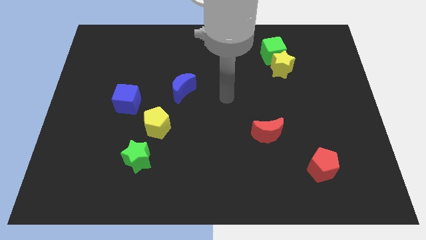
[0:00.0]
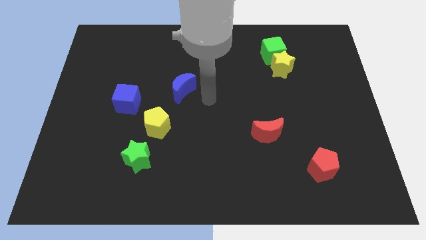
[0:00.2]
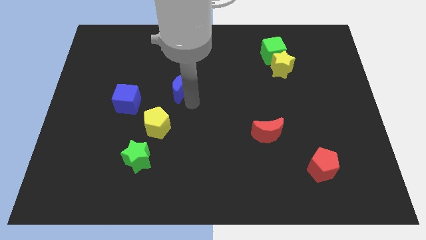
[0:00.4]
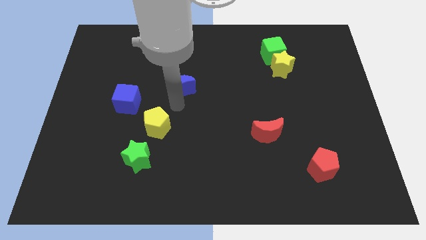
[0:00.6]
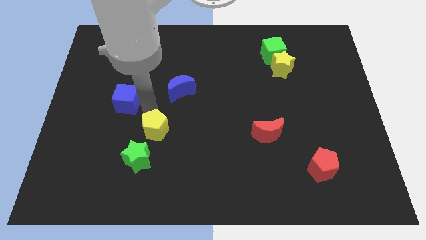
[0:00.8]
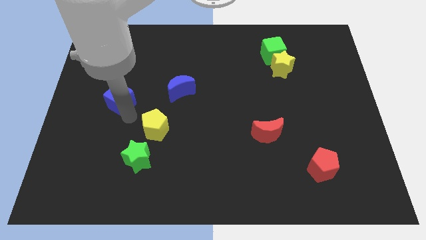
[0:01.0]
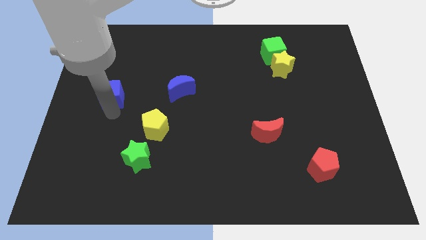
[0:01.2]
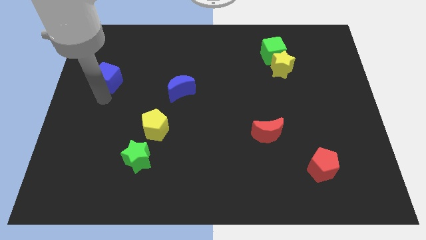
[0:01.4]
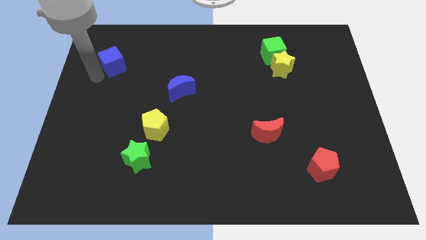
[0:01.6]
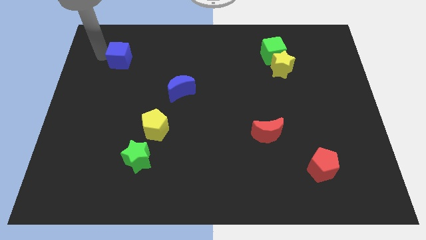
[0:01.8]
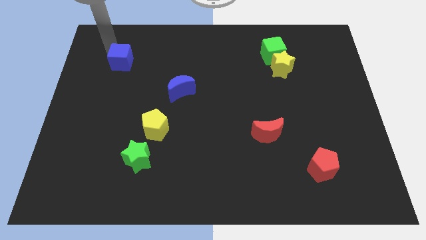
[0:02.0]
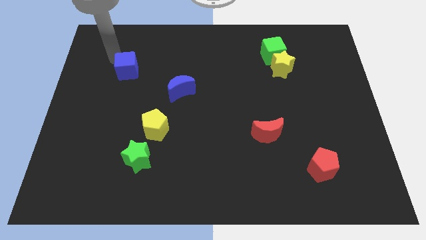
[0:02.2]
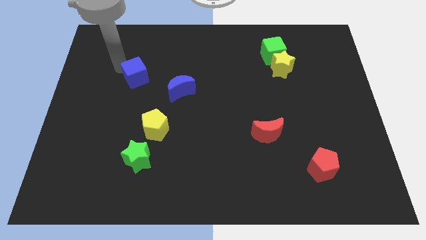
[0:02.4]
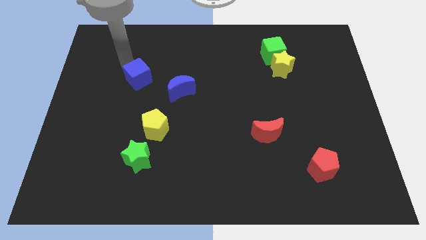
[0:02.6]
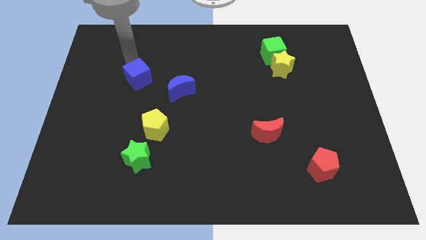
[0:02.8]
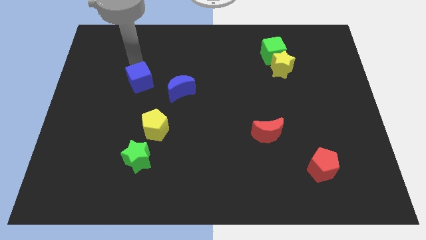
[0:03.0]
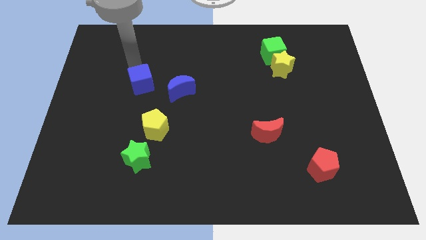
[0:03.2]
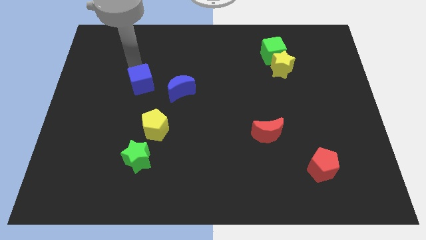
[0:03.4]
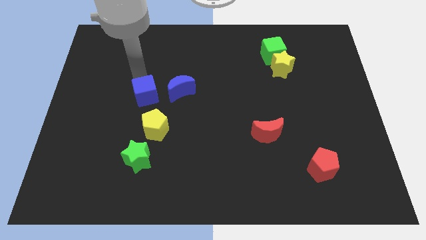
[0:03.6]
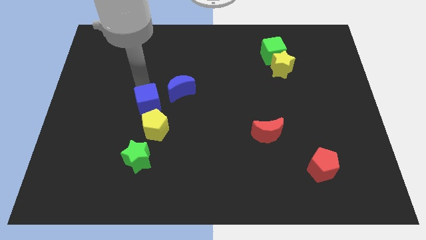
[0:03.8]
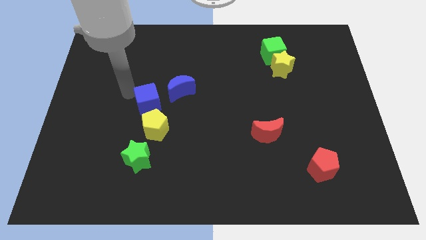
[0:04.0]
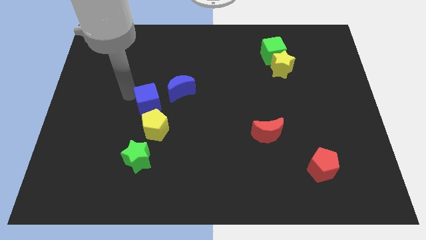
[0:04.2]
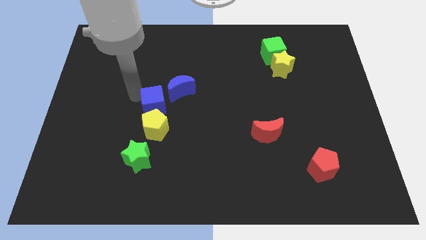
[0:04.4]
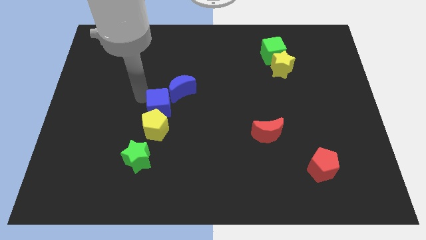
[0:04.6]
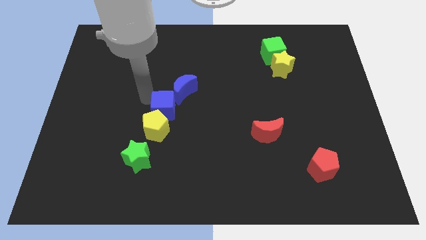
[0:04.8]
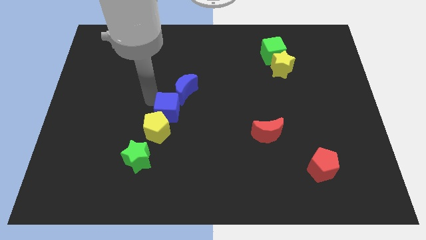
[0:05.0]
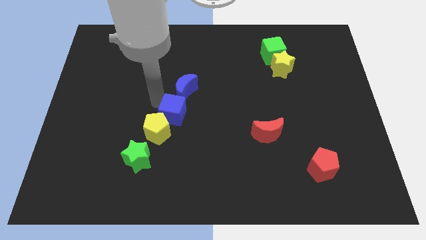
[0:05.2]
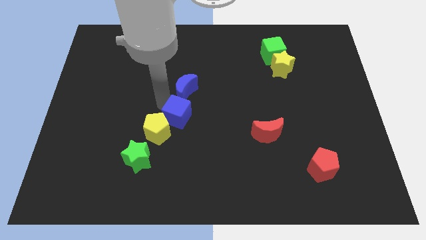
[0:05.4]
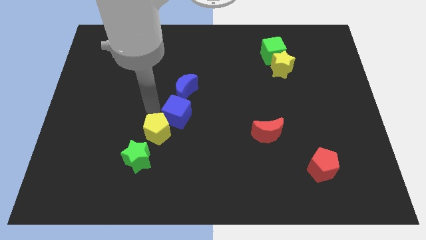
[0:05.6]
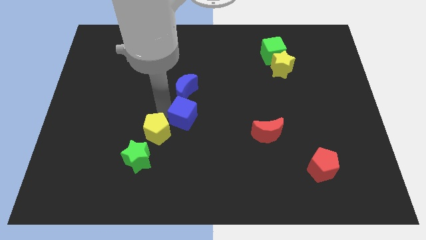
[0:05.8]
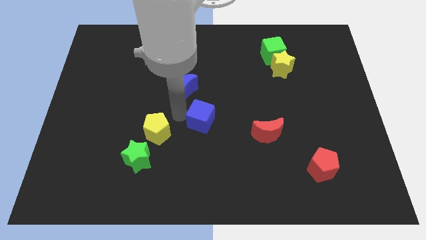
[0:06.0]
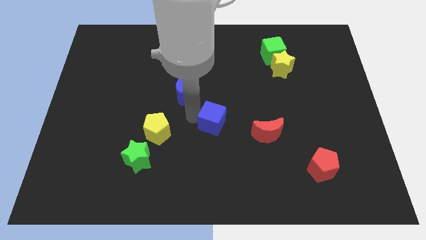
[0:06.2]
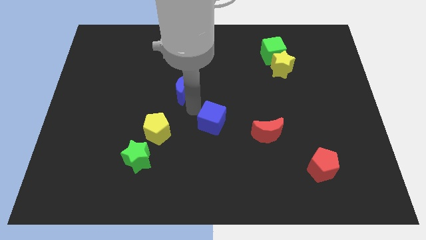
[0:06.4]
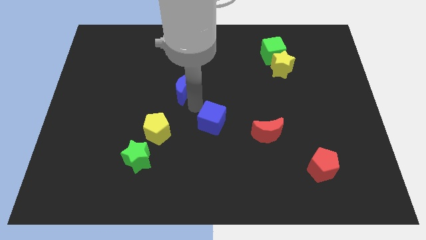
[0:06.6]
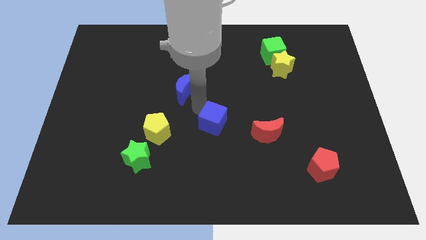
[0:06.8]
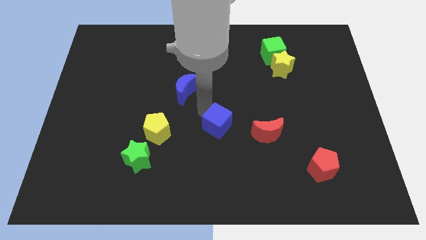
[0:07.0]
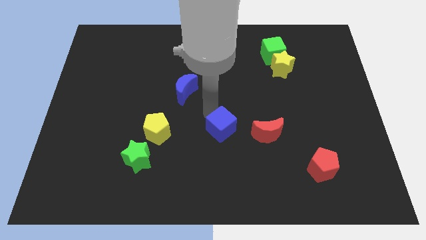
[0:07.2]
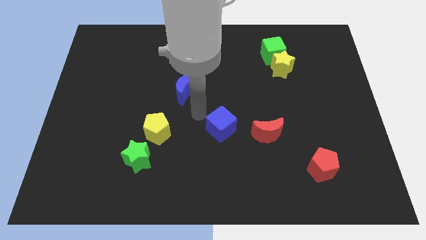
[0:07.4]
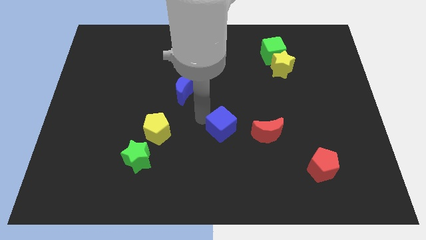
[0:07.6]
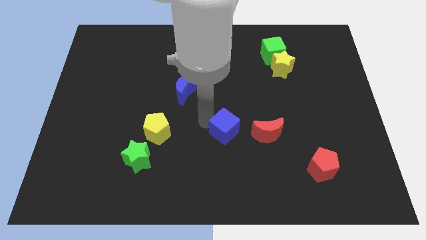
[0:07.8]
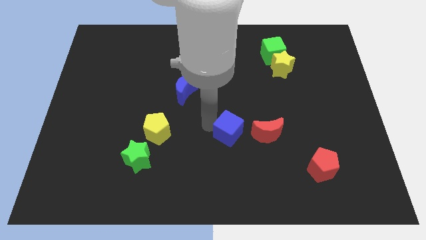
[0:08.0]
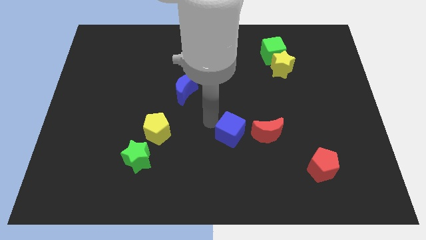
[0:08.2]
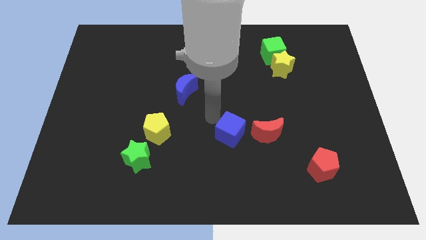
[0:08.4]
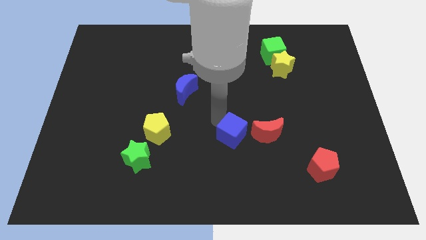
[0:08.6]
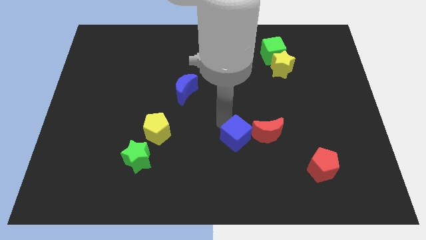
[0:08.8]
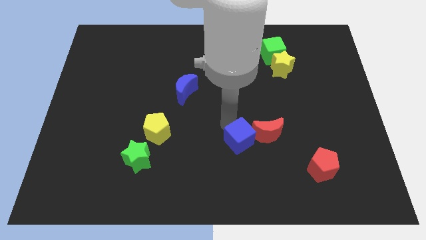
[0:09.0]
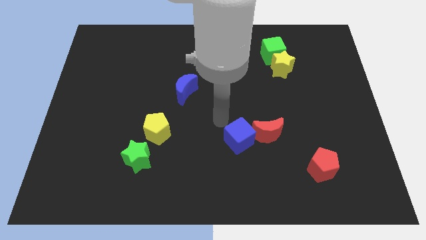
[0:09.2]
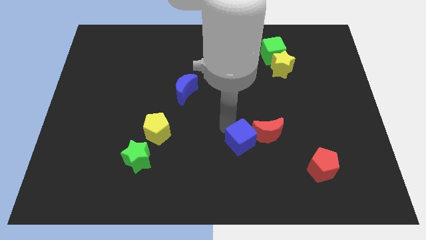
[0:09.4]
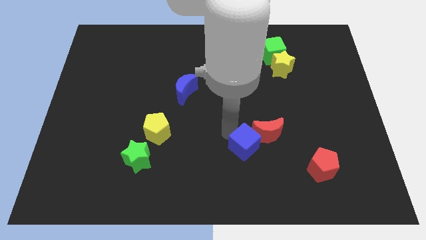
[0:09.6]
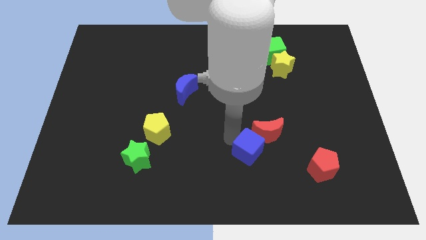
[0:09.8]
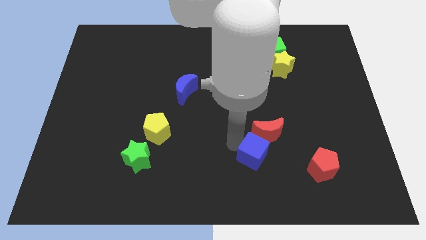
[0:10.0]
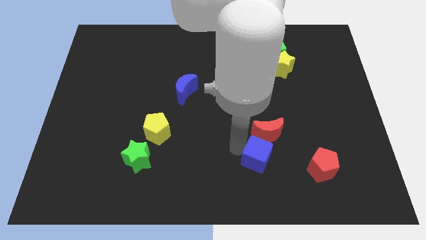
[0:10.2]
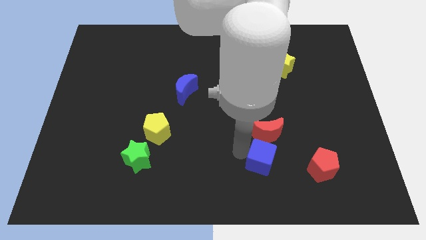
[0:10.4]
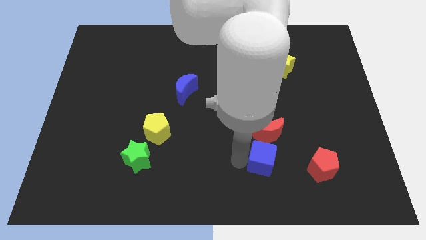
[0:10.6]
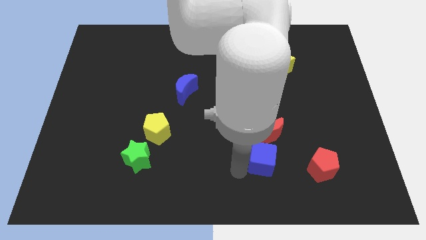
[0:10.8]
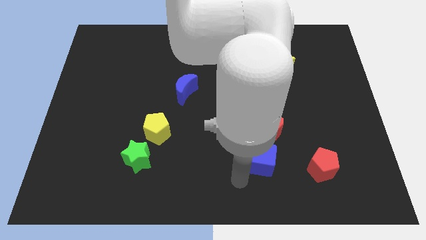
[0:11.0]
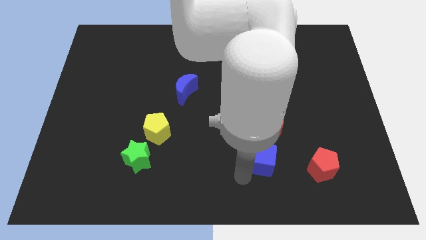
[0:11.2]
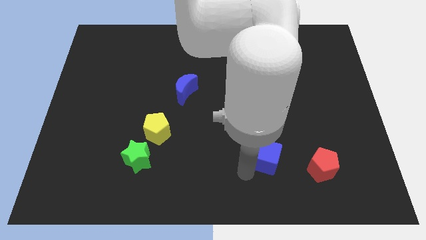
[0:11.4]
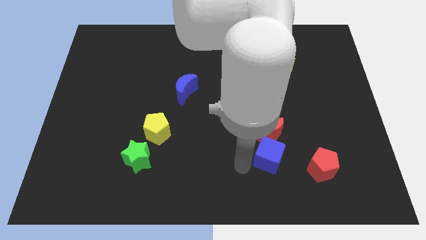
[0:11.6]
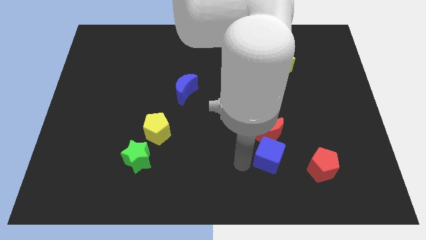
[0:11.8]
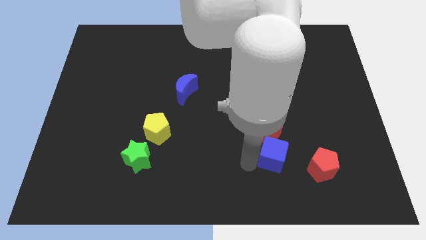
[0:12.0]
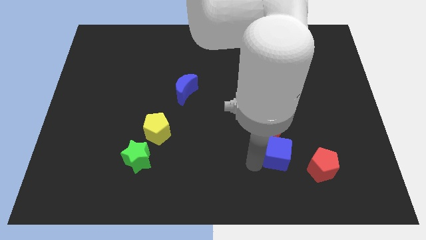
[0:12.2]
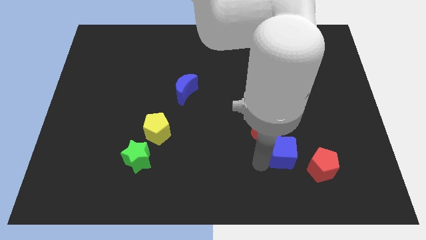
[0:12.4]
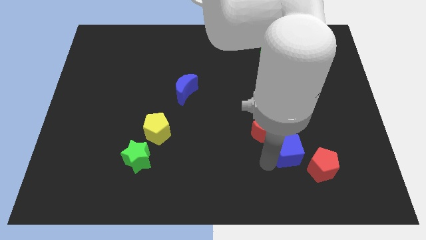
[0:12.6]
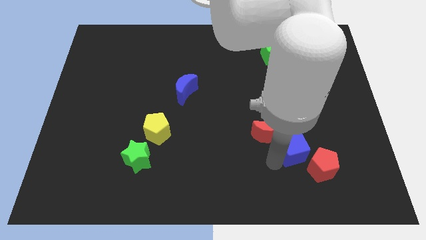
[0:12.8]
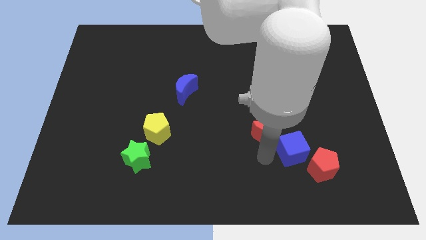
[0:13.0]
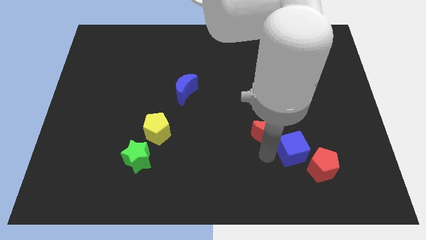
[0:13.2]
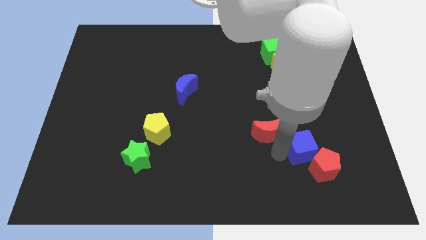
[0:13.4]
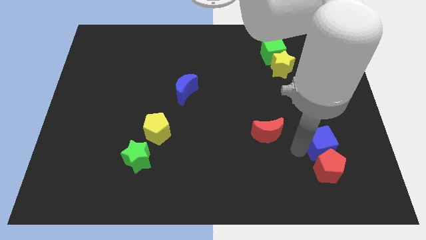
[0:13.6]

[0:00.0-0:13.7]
slide the blue cube to the top right side of the red pentagon

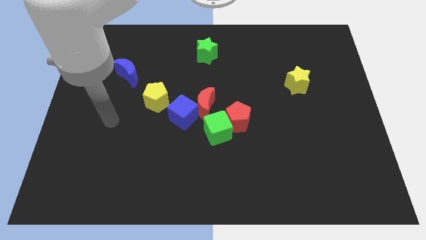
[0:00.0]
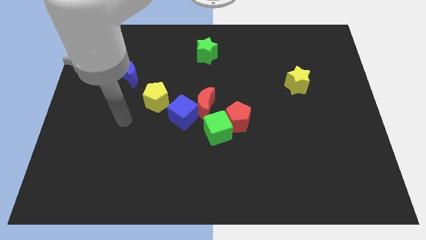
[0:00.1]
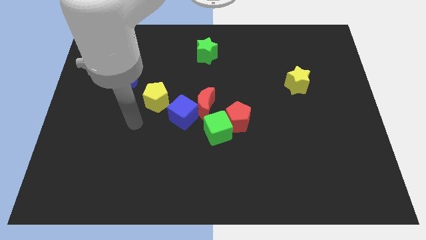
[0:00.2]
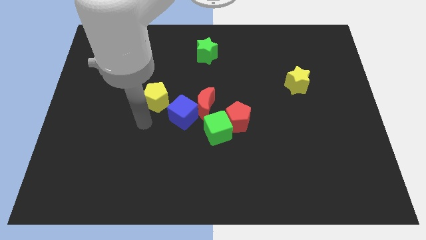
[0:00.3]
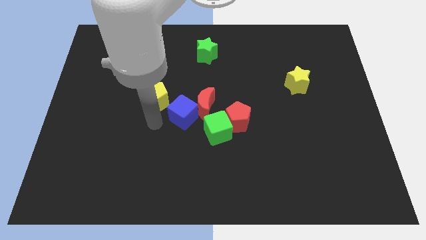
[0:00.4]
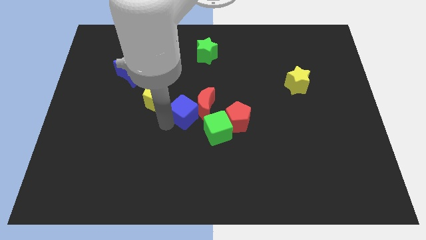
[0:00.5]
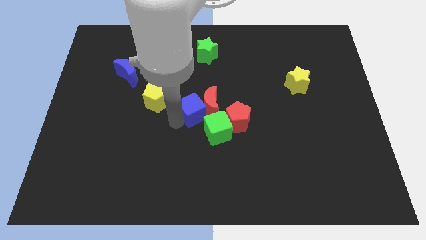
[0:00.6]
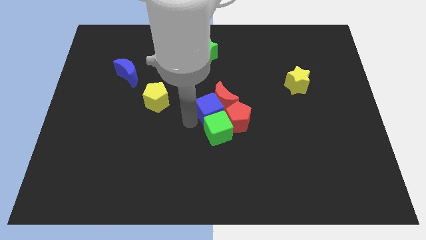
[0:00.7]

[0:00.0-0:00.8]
slide the red moon to the top side of the red pentagon

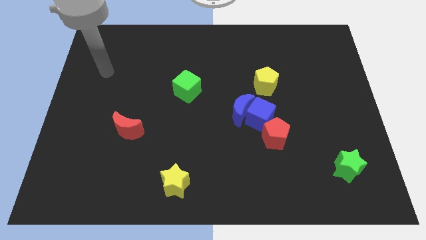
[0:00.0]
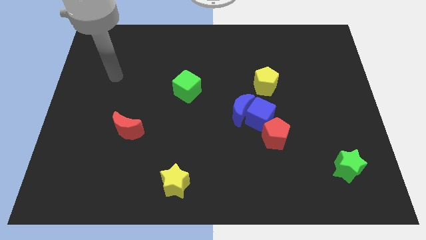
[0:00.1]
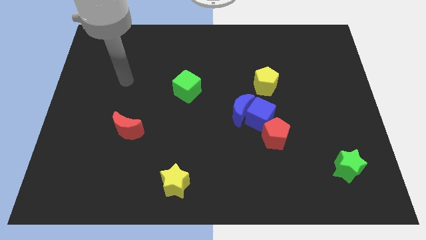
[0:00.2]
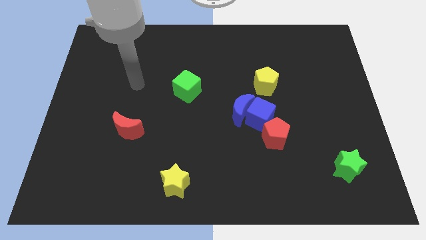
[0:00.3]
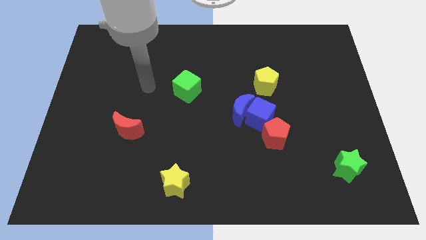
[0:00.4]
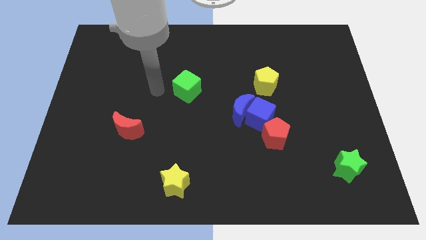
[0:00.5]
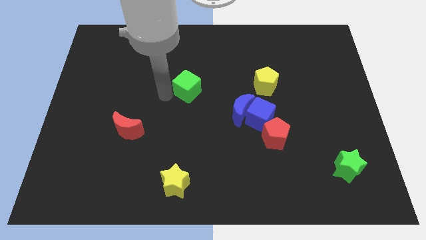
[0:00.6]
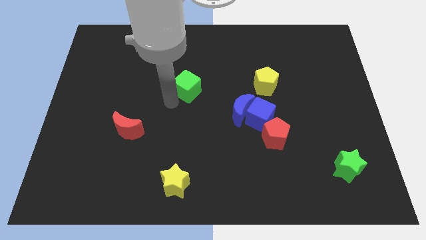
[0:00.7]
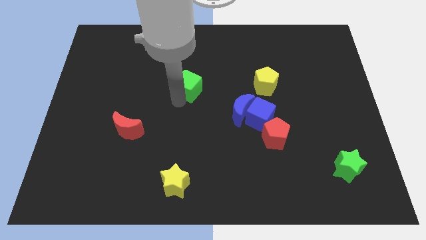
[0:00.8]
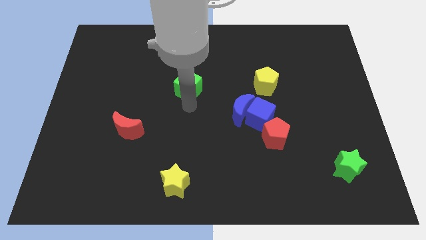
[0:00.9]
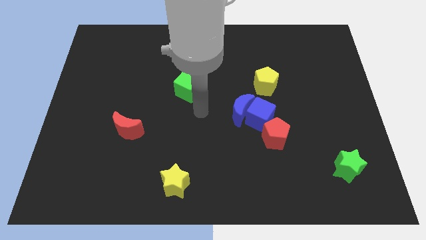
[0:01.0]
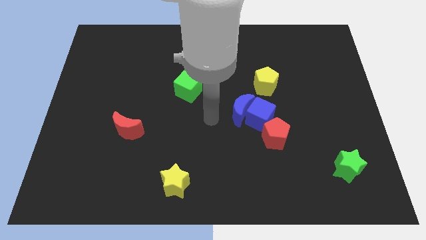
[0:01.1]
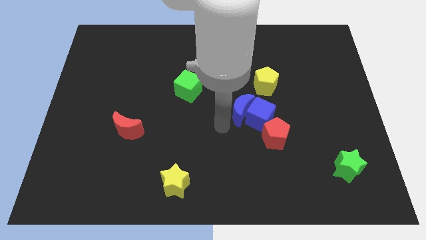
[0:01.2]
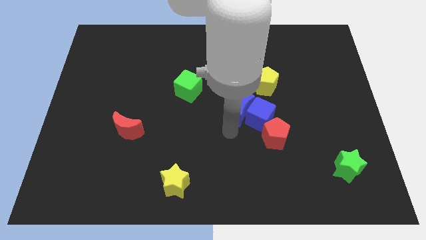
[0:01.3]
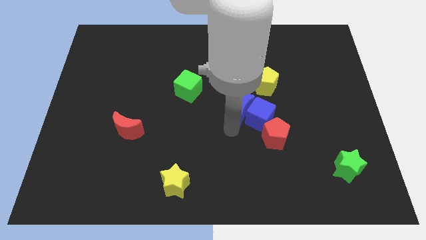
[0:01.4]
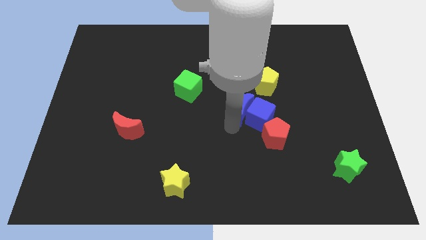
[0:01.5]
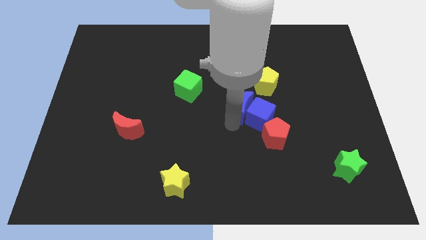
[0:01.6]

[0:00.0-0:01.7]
slide the blue moon above the blue cube
